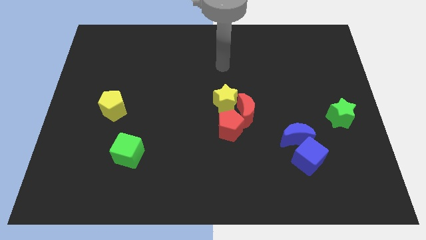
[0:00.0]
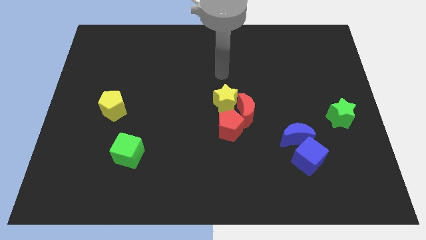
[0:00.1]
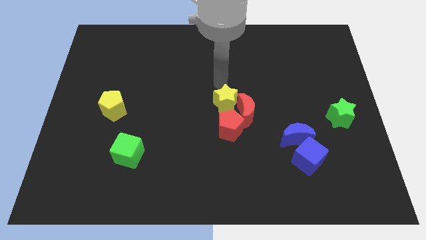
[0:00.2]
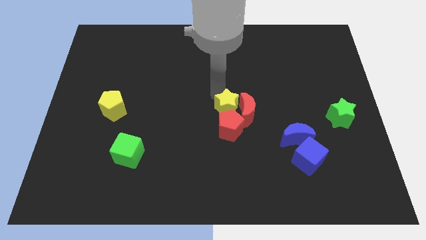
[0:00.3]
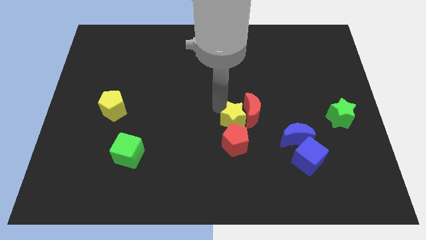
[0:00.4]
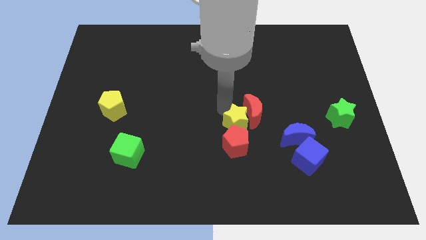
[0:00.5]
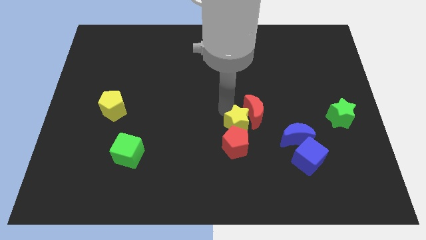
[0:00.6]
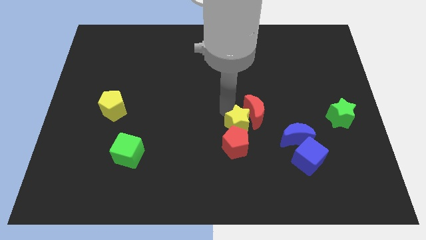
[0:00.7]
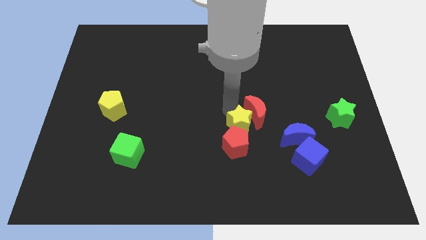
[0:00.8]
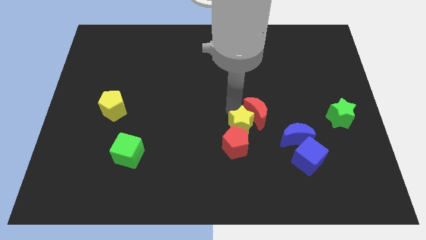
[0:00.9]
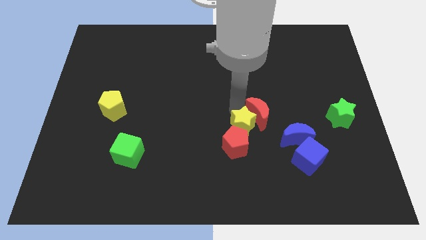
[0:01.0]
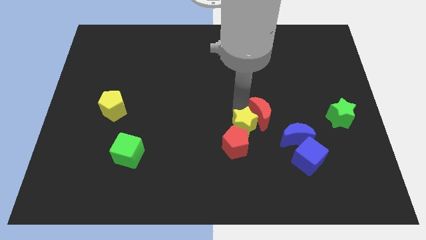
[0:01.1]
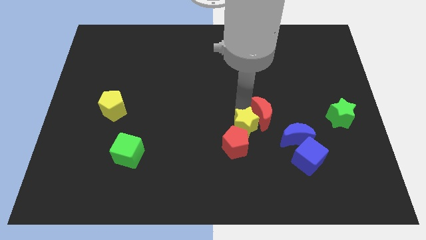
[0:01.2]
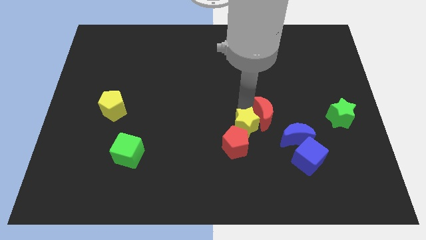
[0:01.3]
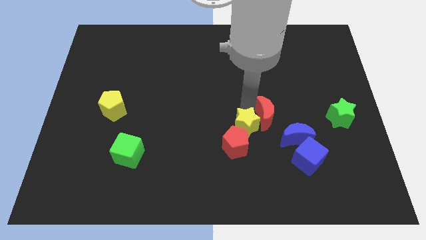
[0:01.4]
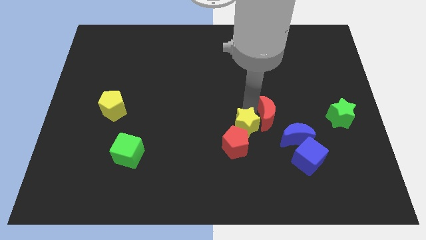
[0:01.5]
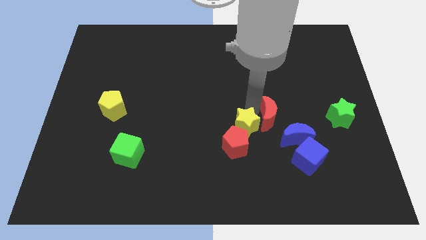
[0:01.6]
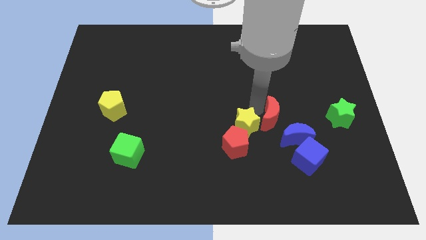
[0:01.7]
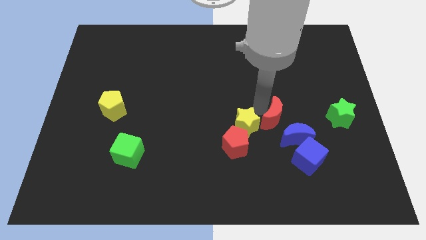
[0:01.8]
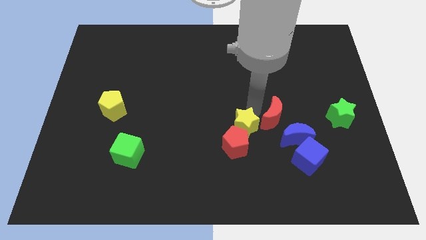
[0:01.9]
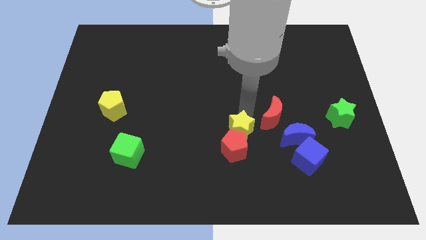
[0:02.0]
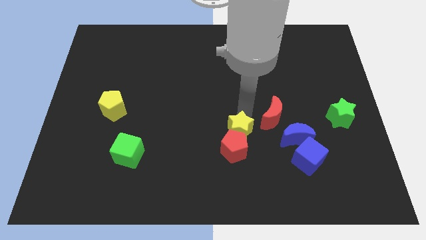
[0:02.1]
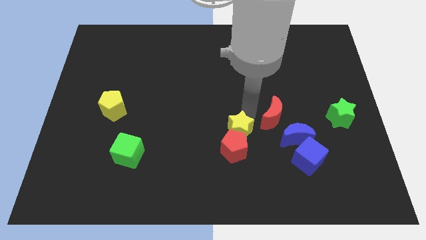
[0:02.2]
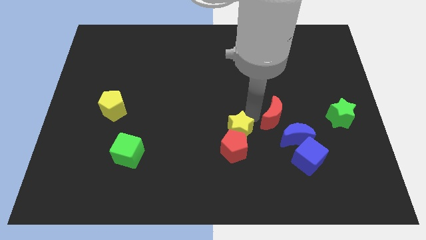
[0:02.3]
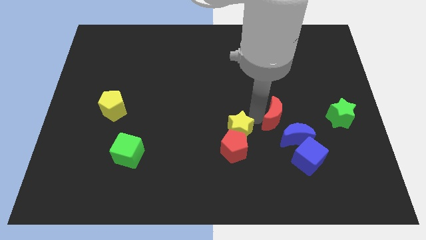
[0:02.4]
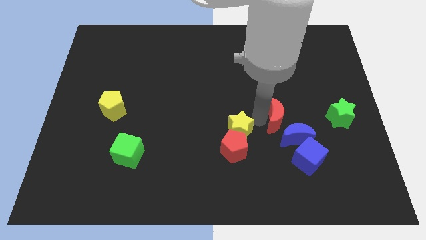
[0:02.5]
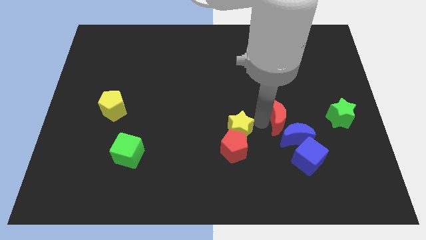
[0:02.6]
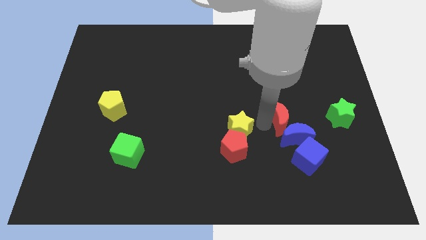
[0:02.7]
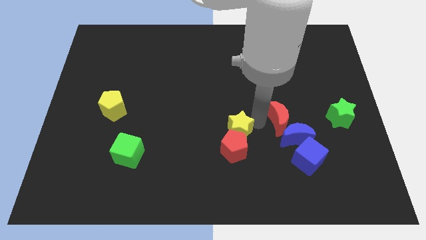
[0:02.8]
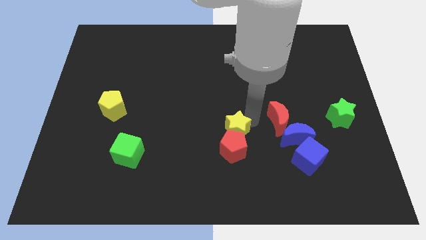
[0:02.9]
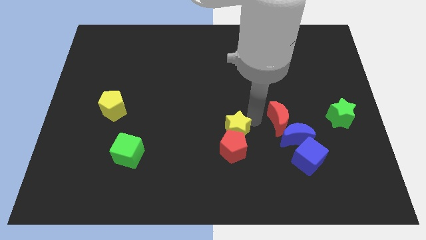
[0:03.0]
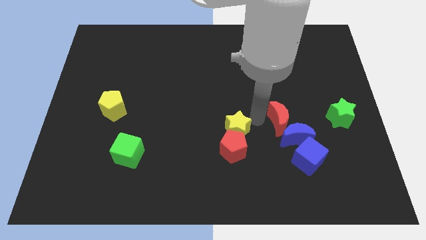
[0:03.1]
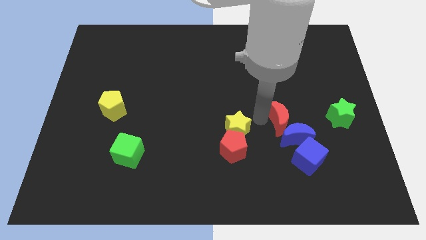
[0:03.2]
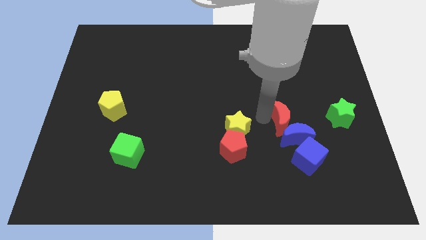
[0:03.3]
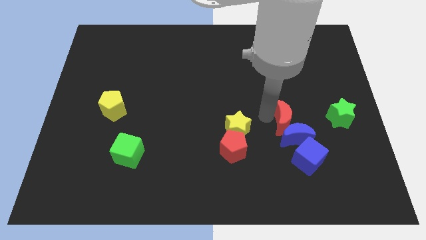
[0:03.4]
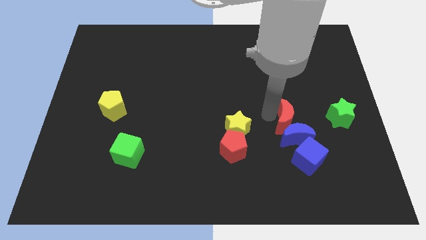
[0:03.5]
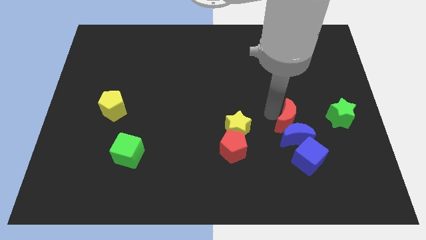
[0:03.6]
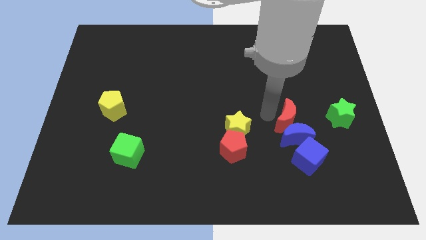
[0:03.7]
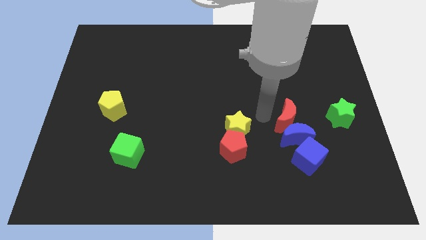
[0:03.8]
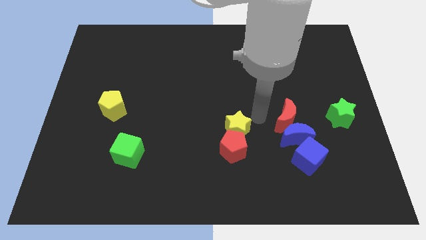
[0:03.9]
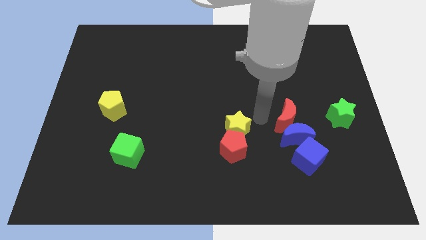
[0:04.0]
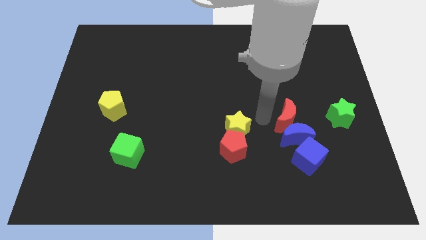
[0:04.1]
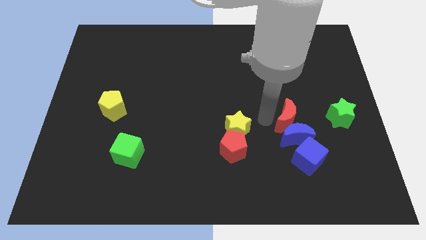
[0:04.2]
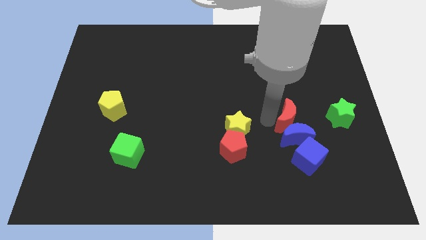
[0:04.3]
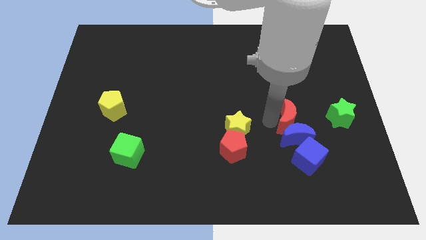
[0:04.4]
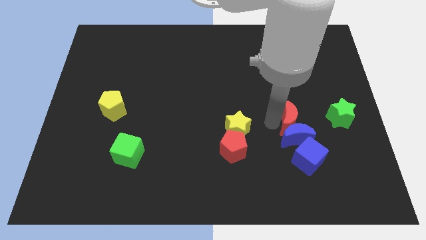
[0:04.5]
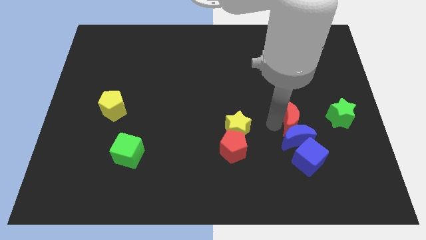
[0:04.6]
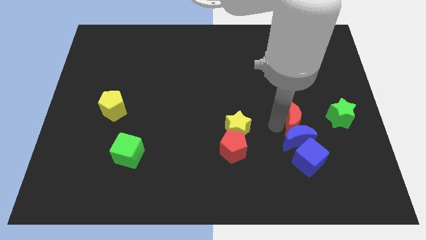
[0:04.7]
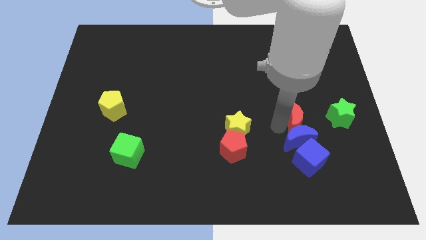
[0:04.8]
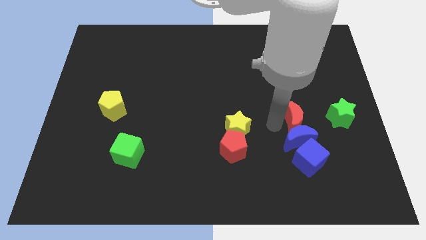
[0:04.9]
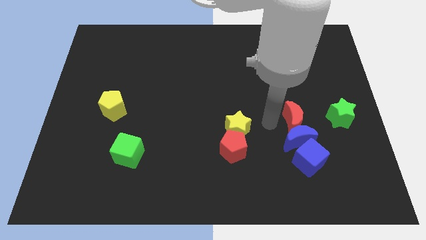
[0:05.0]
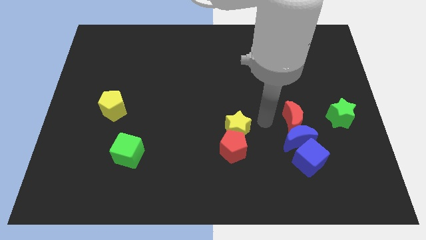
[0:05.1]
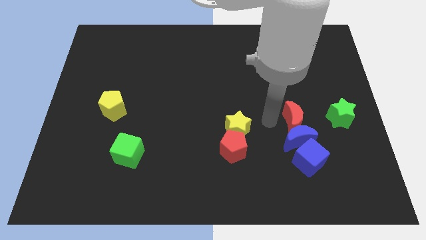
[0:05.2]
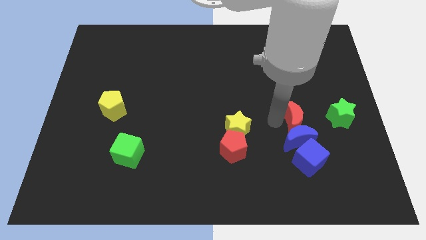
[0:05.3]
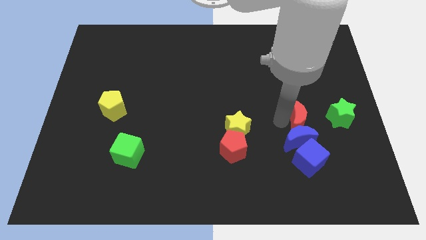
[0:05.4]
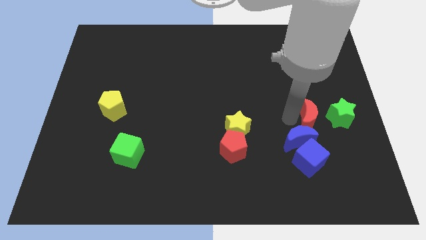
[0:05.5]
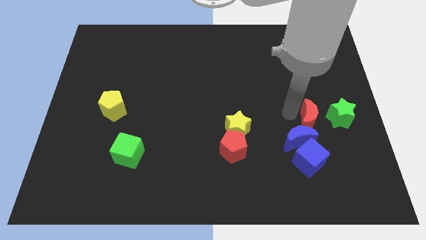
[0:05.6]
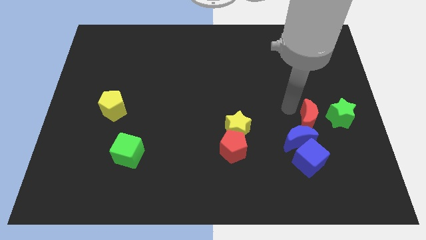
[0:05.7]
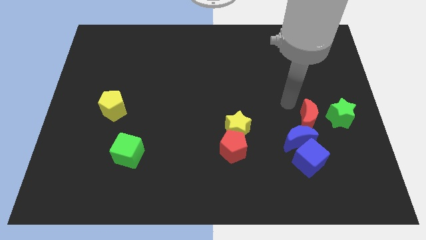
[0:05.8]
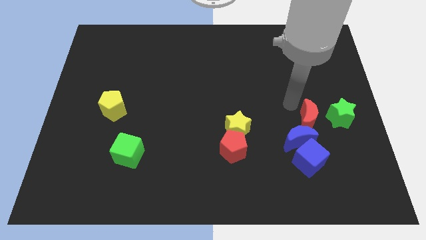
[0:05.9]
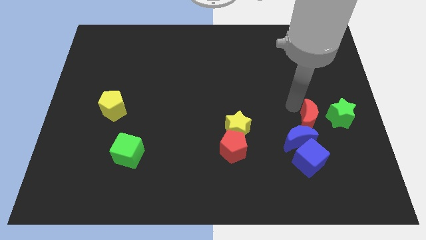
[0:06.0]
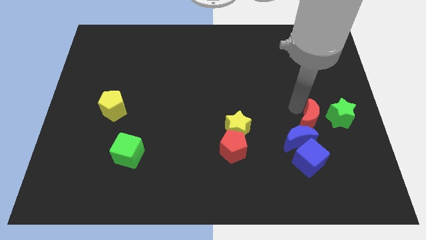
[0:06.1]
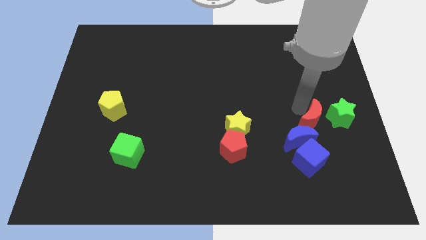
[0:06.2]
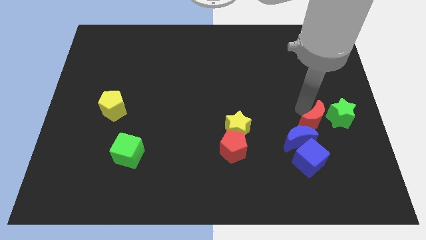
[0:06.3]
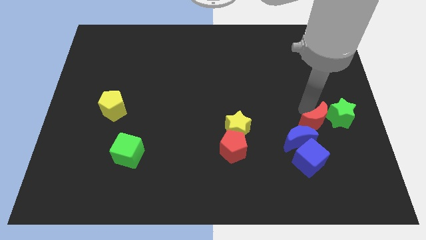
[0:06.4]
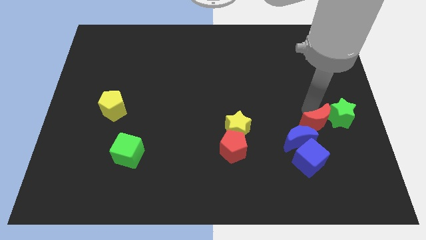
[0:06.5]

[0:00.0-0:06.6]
put the red moon diagonally up and to the right of the blue cube

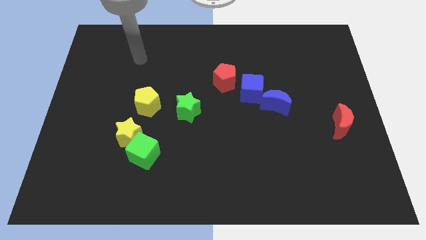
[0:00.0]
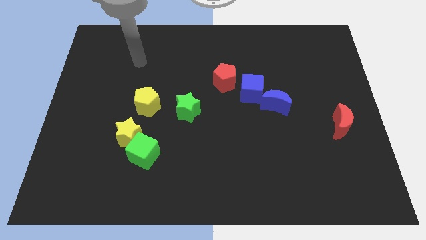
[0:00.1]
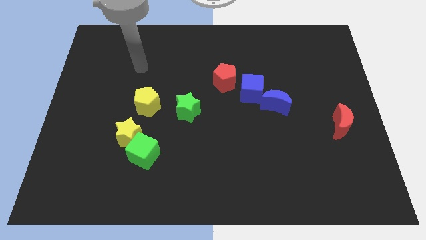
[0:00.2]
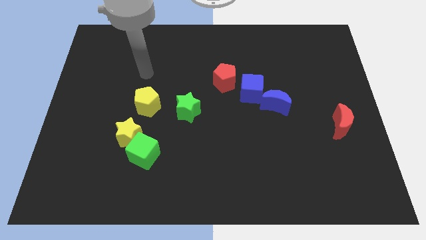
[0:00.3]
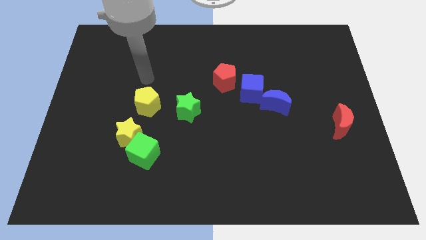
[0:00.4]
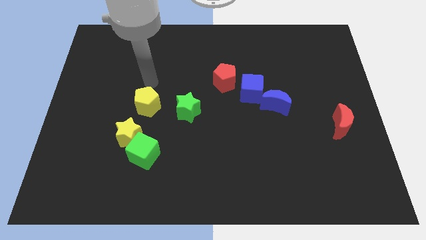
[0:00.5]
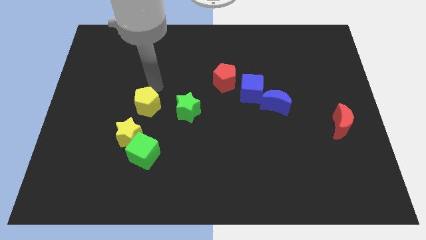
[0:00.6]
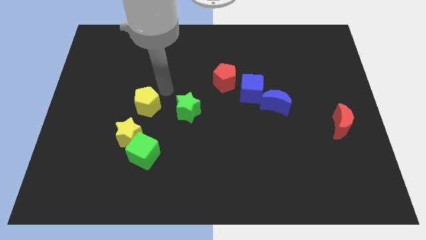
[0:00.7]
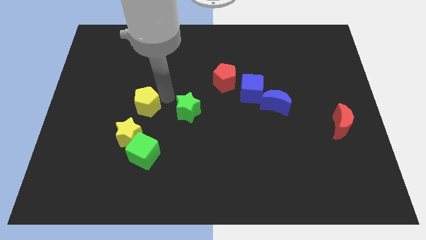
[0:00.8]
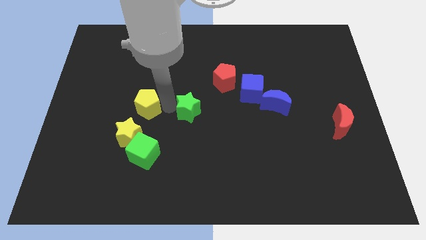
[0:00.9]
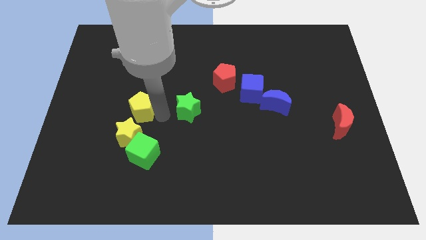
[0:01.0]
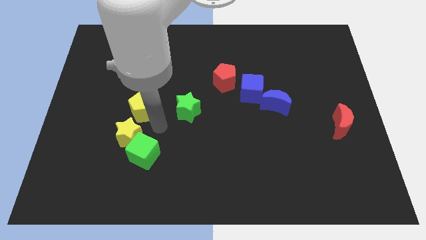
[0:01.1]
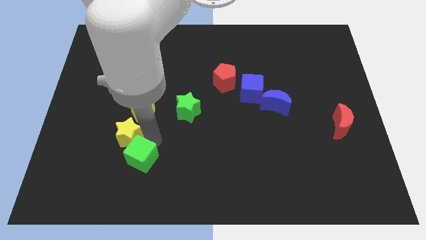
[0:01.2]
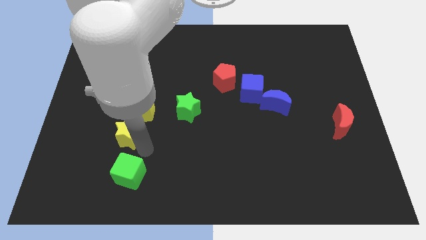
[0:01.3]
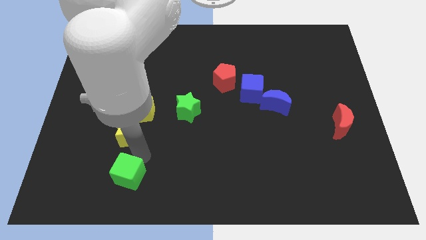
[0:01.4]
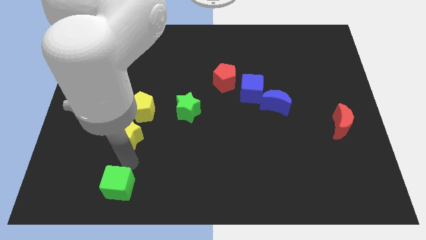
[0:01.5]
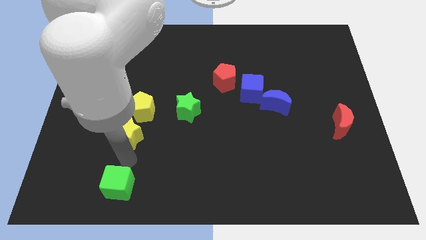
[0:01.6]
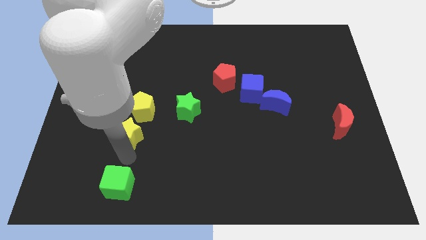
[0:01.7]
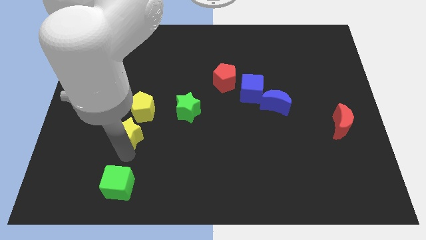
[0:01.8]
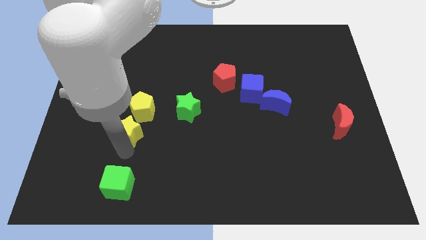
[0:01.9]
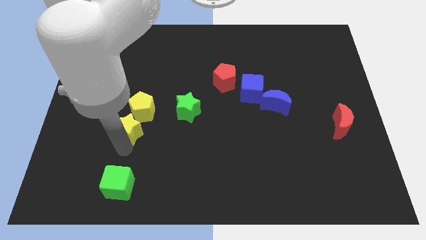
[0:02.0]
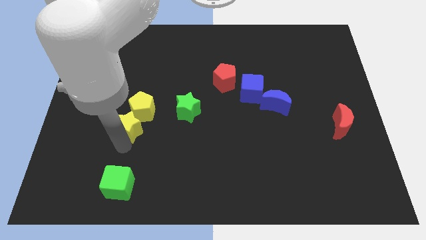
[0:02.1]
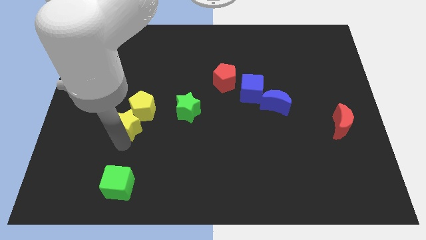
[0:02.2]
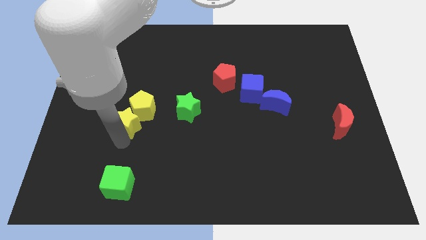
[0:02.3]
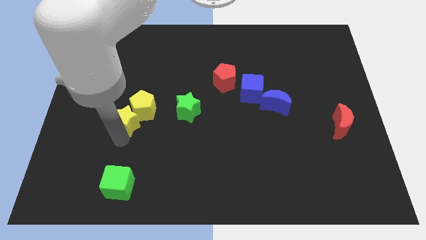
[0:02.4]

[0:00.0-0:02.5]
push the yellow star to the left side of the green star
